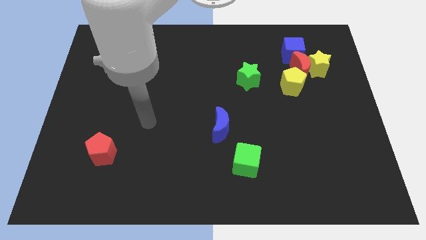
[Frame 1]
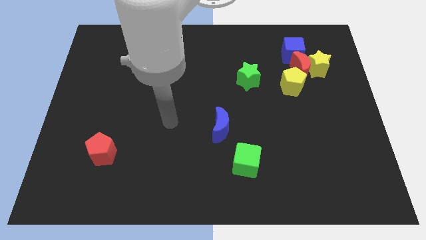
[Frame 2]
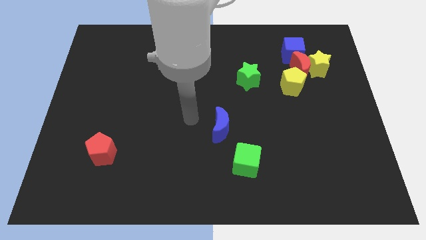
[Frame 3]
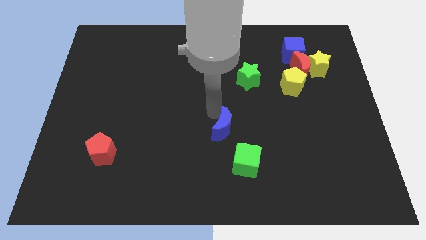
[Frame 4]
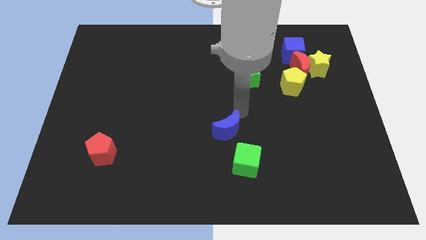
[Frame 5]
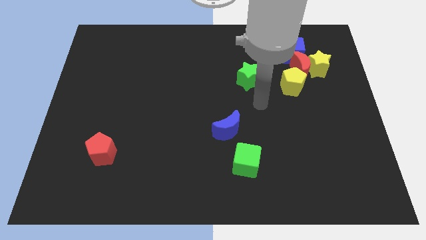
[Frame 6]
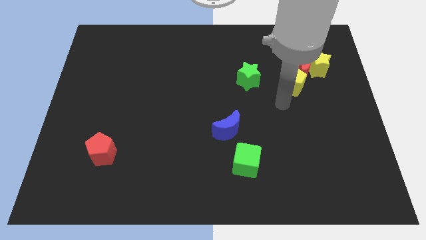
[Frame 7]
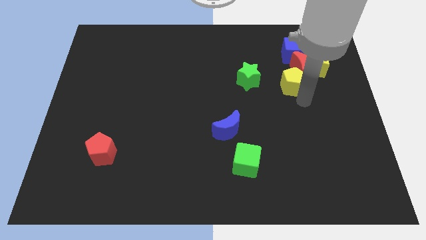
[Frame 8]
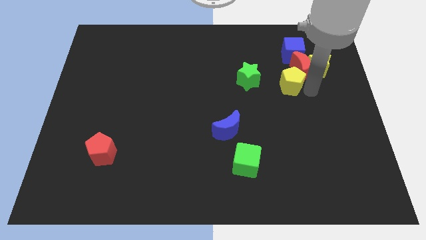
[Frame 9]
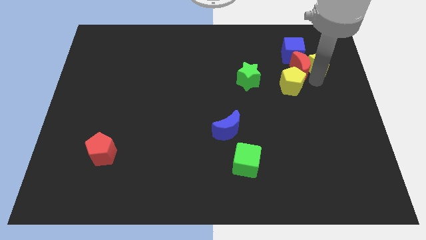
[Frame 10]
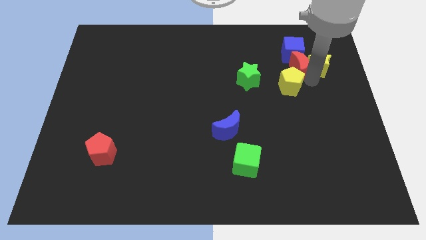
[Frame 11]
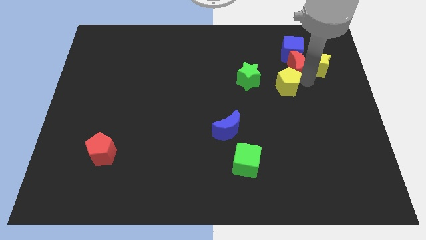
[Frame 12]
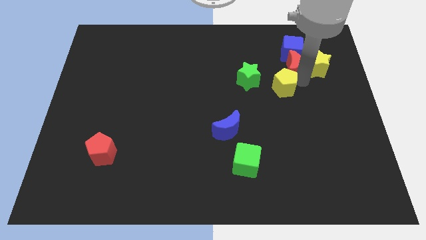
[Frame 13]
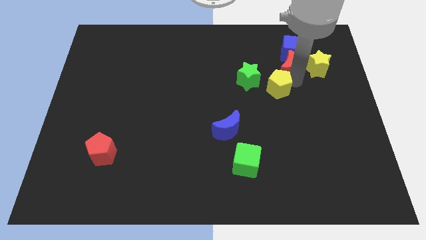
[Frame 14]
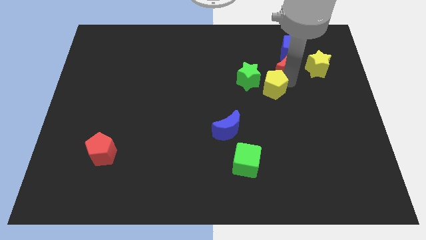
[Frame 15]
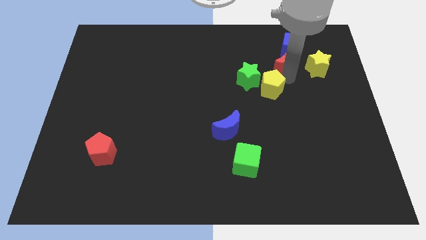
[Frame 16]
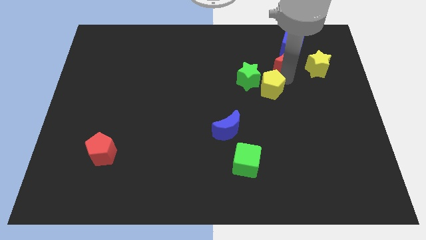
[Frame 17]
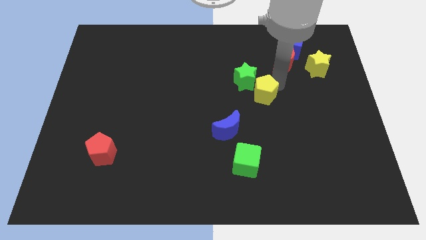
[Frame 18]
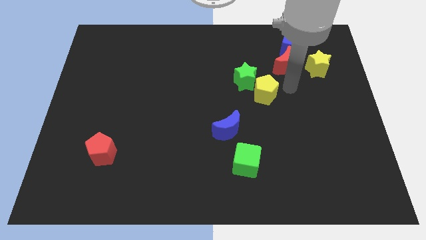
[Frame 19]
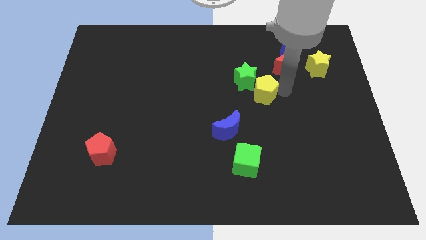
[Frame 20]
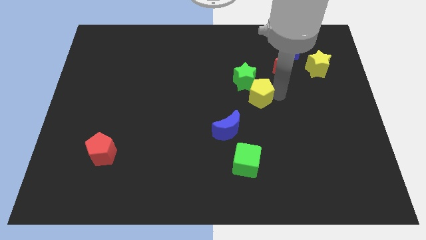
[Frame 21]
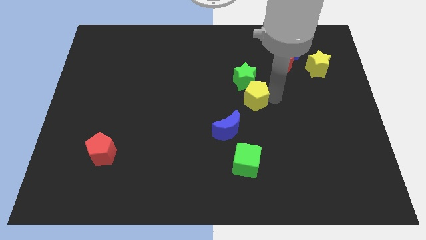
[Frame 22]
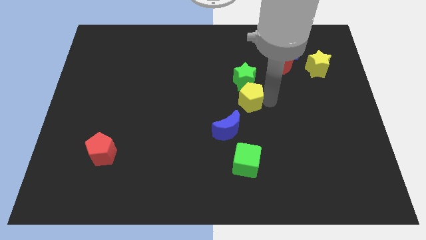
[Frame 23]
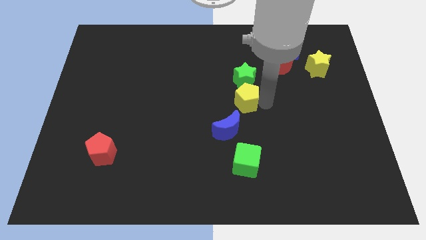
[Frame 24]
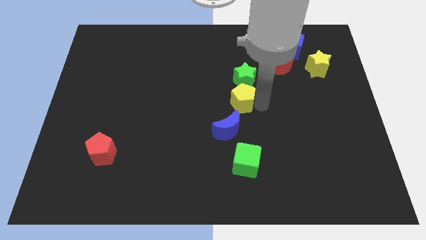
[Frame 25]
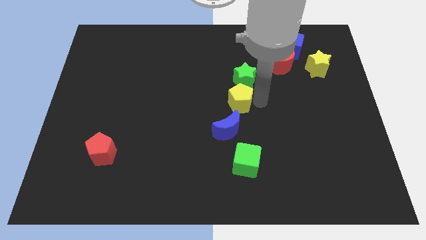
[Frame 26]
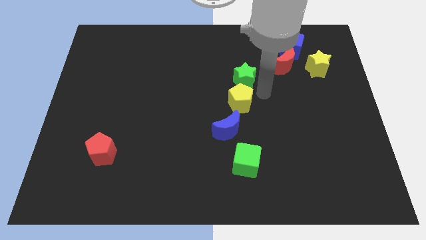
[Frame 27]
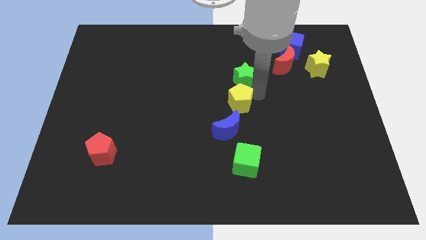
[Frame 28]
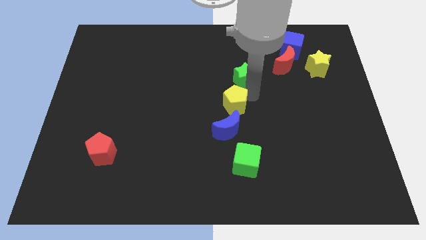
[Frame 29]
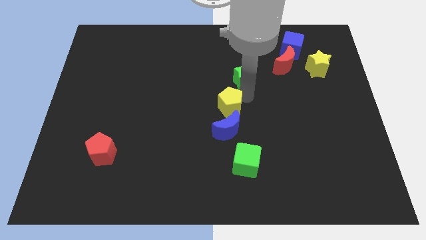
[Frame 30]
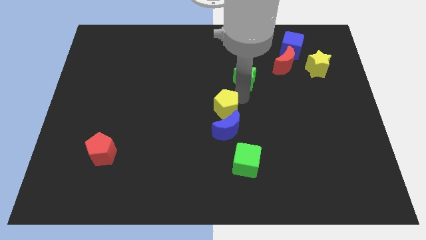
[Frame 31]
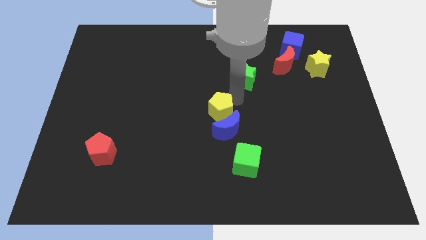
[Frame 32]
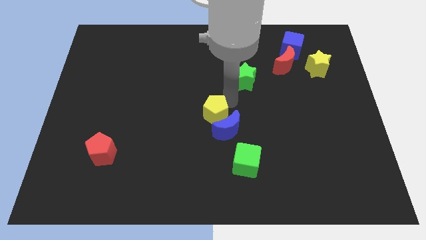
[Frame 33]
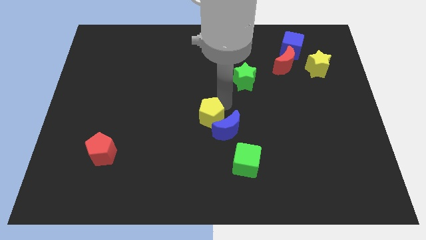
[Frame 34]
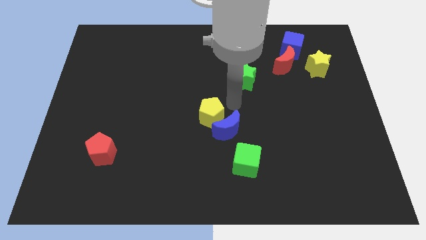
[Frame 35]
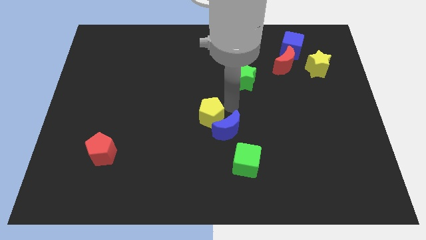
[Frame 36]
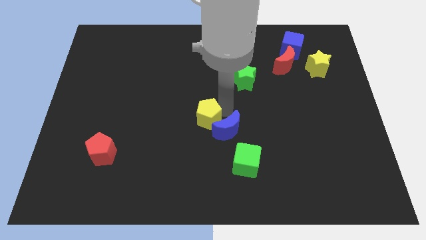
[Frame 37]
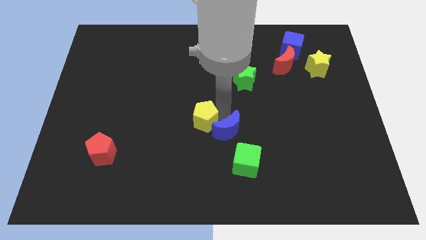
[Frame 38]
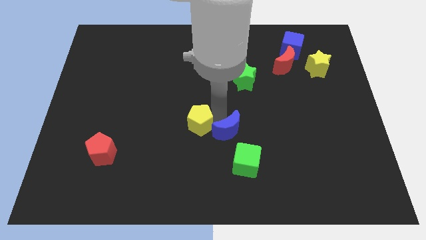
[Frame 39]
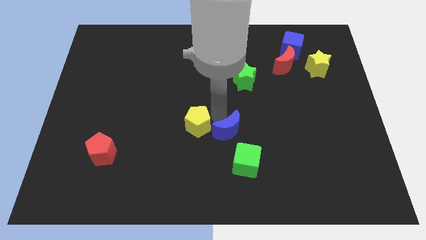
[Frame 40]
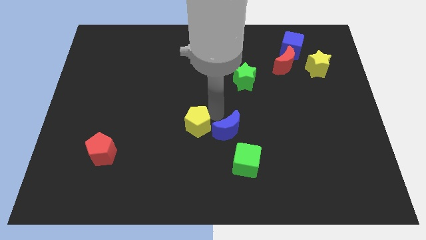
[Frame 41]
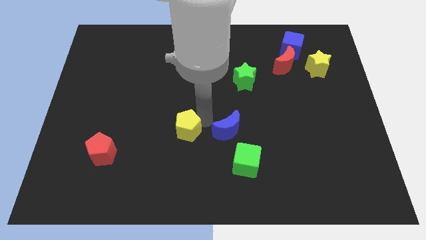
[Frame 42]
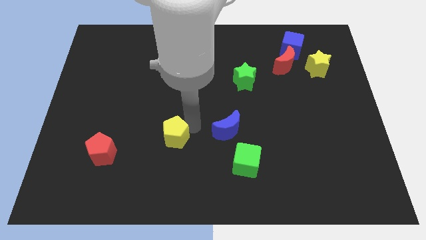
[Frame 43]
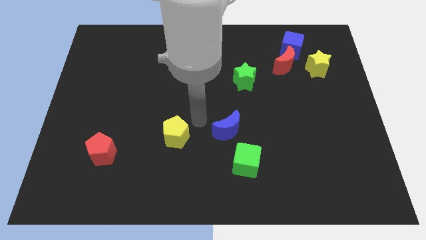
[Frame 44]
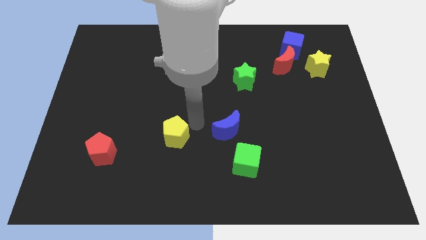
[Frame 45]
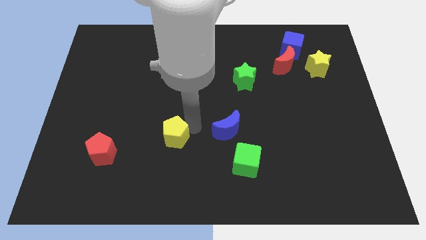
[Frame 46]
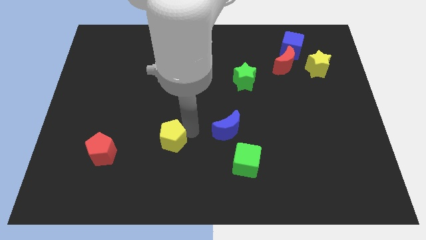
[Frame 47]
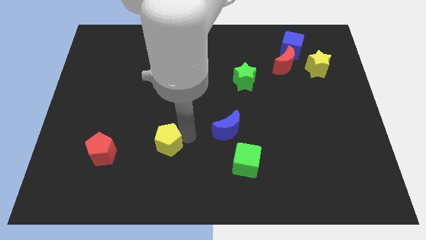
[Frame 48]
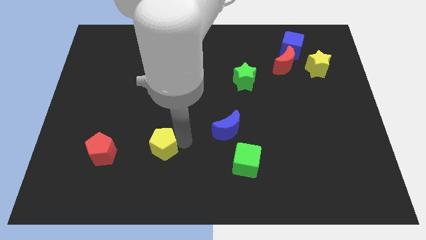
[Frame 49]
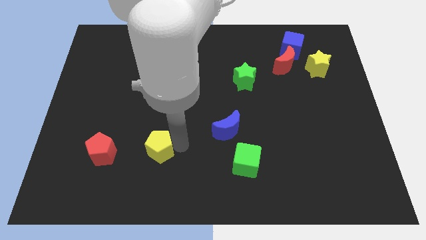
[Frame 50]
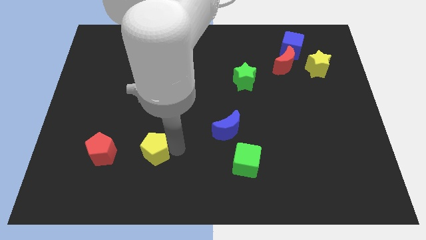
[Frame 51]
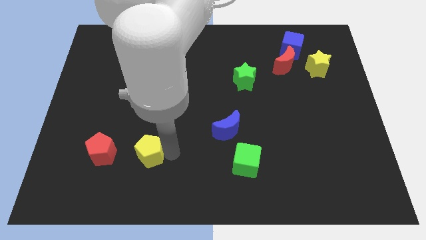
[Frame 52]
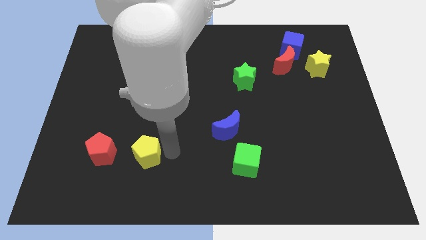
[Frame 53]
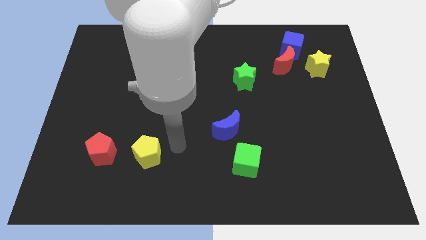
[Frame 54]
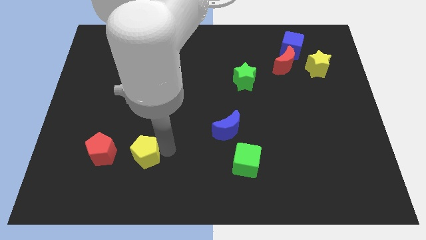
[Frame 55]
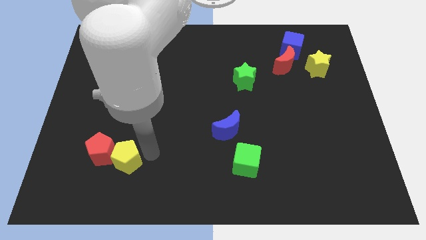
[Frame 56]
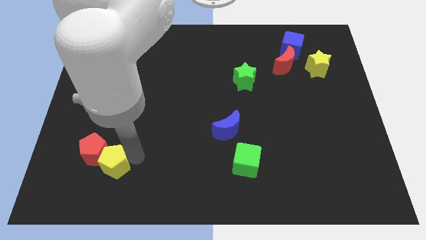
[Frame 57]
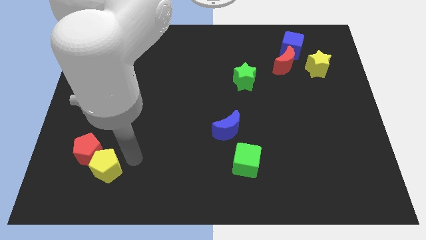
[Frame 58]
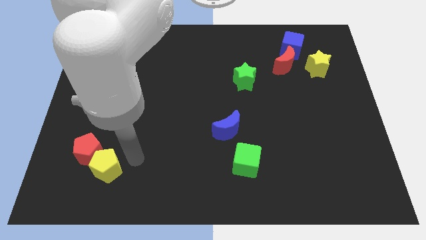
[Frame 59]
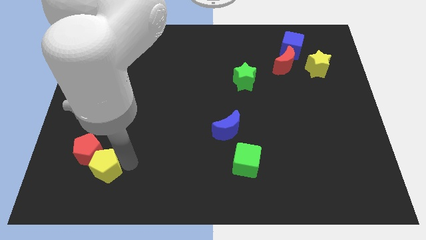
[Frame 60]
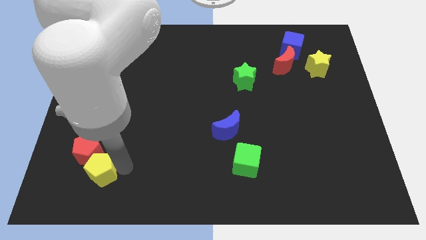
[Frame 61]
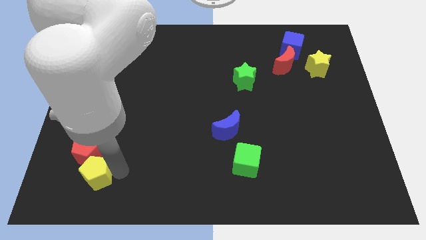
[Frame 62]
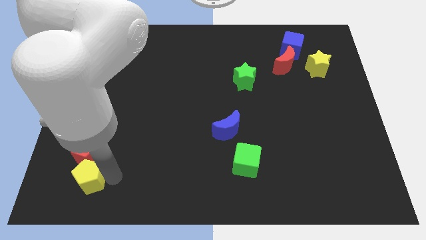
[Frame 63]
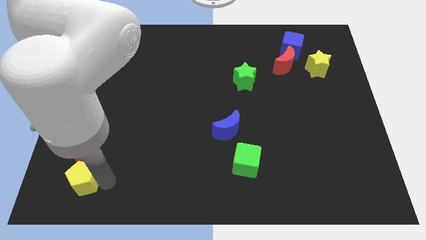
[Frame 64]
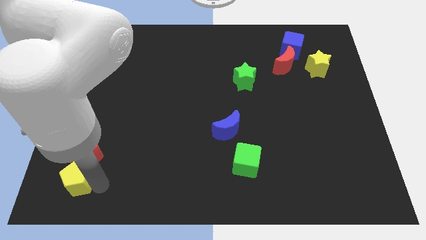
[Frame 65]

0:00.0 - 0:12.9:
push the yellow pentagon to the bottom left corner

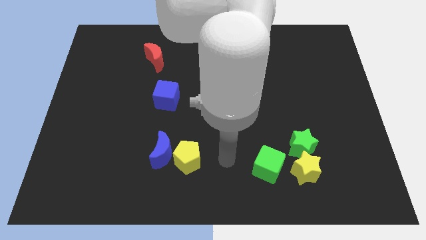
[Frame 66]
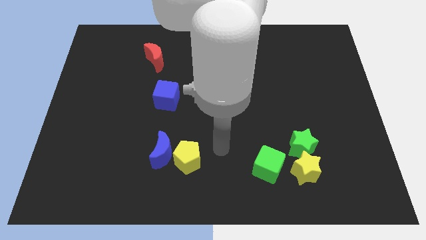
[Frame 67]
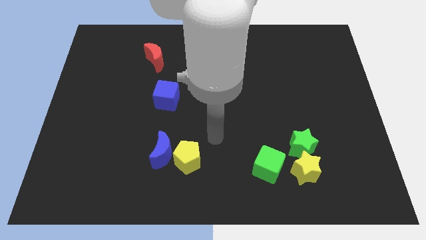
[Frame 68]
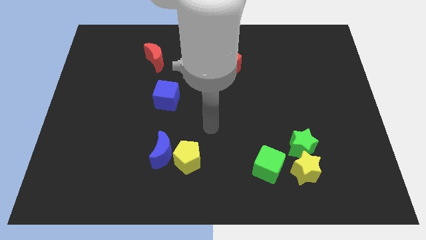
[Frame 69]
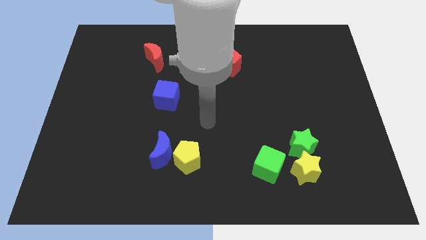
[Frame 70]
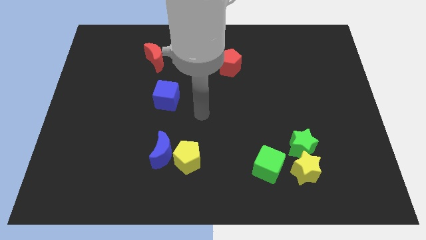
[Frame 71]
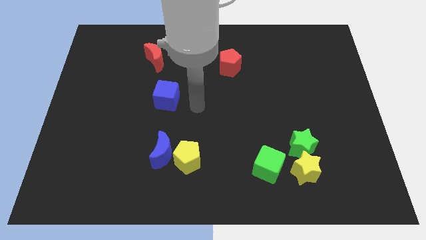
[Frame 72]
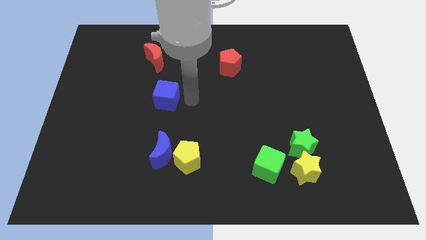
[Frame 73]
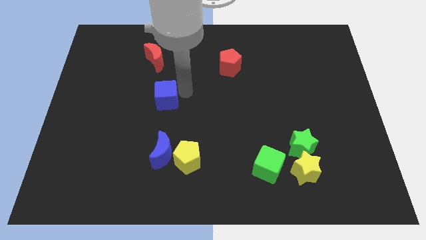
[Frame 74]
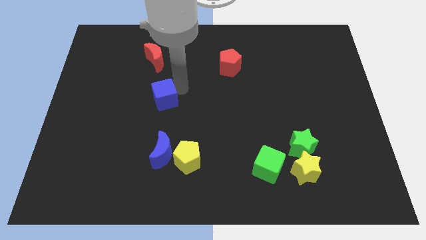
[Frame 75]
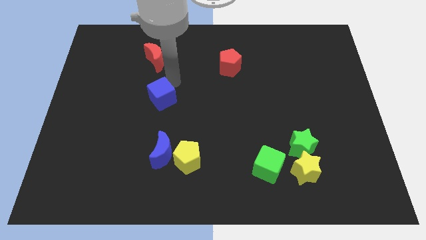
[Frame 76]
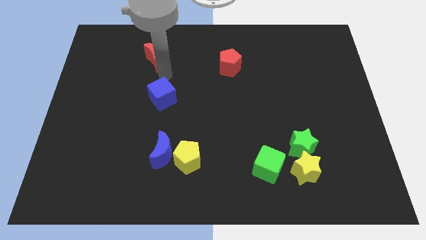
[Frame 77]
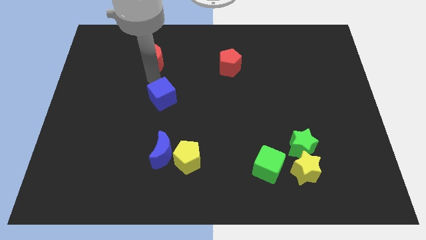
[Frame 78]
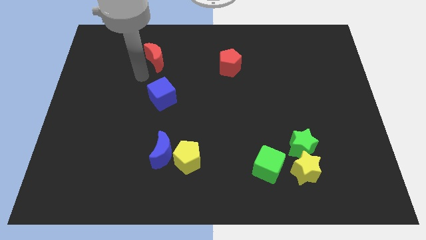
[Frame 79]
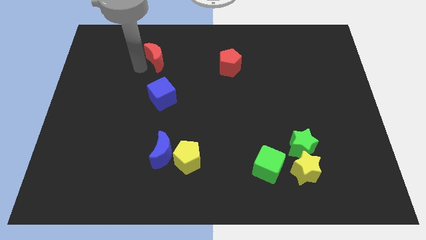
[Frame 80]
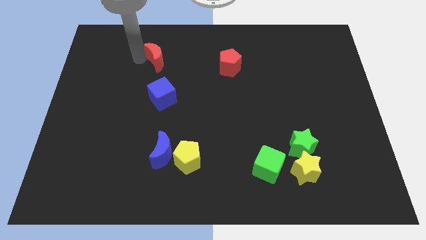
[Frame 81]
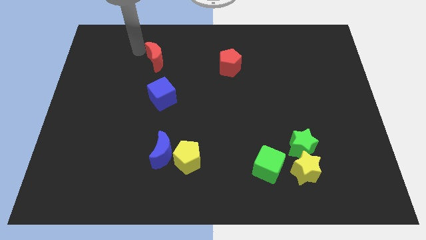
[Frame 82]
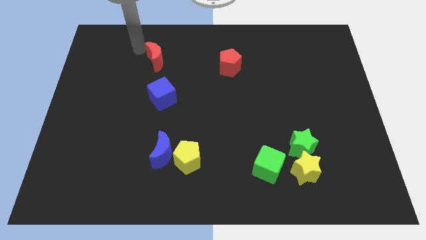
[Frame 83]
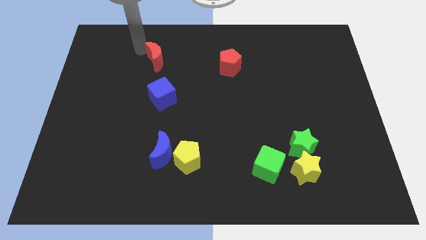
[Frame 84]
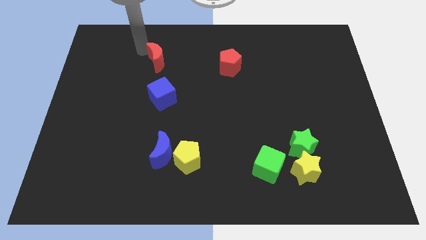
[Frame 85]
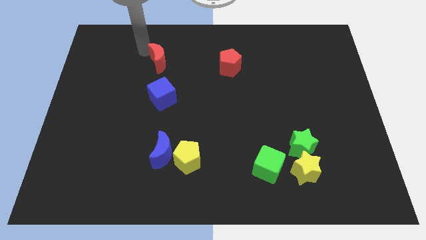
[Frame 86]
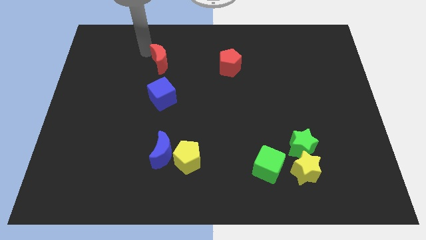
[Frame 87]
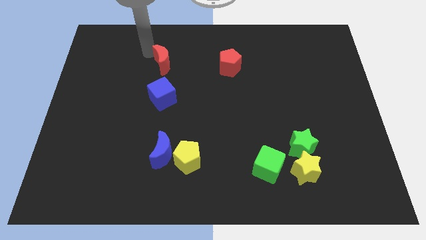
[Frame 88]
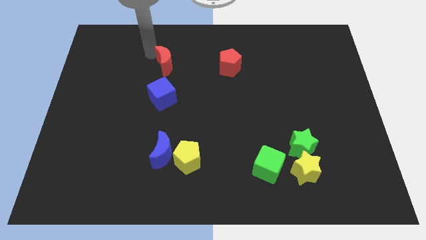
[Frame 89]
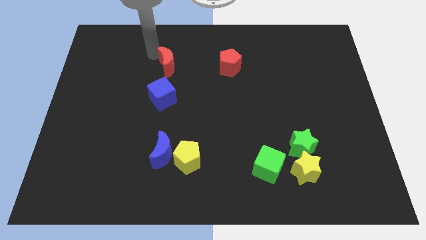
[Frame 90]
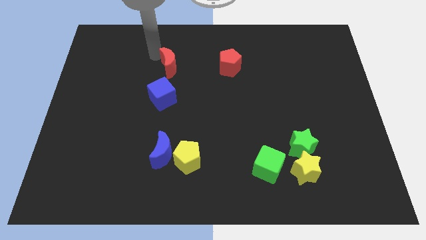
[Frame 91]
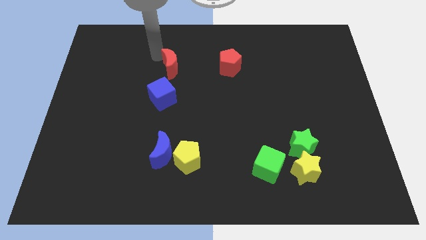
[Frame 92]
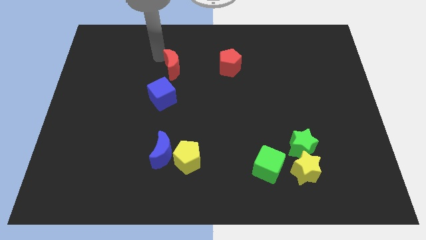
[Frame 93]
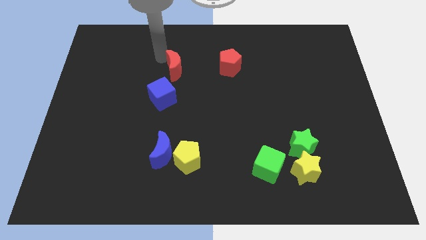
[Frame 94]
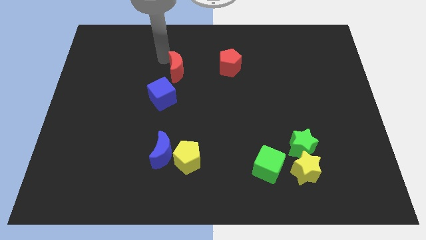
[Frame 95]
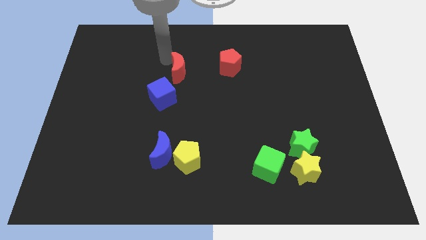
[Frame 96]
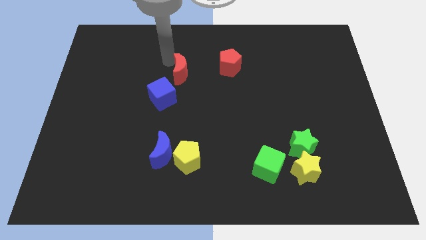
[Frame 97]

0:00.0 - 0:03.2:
move the red moon to the center of the board
